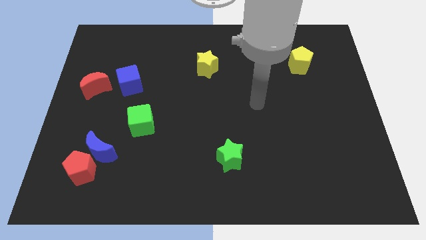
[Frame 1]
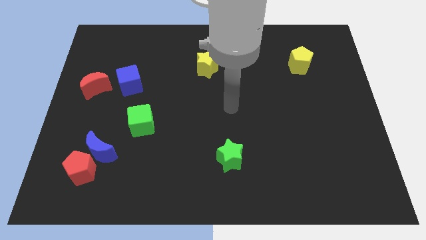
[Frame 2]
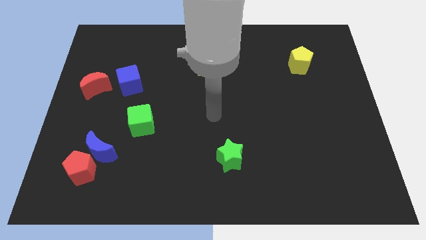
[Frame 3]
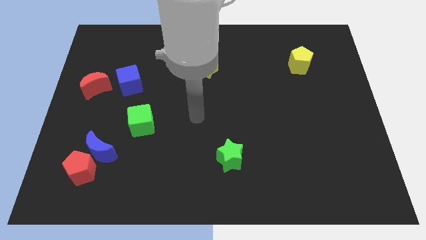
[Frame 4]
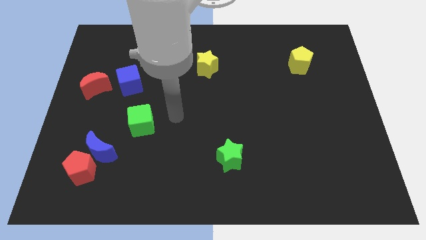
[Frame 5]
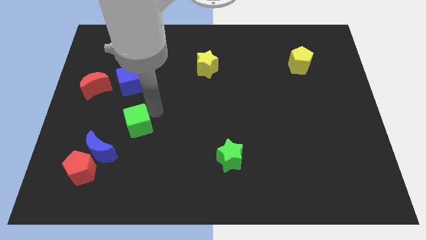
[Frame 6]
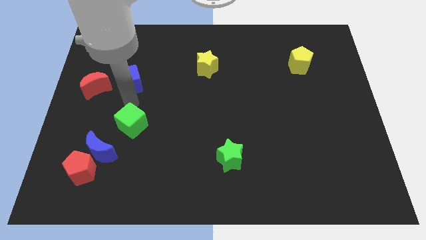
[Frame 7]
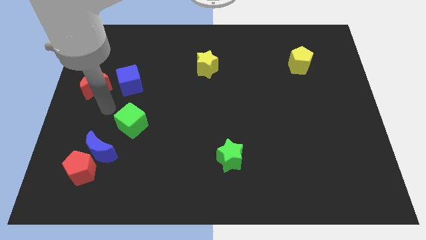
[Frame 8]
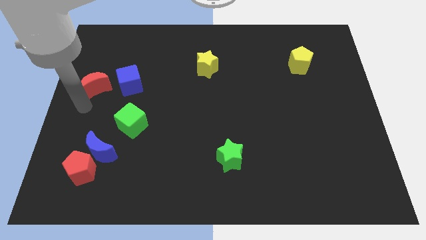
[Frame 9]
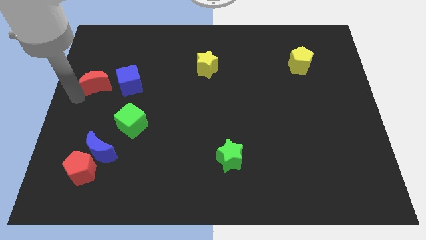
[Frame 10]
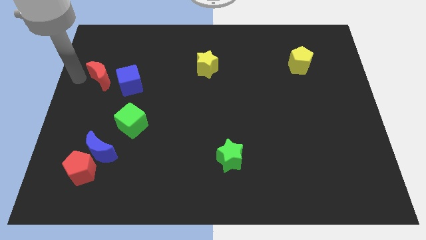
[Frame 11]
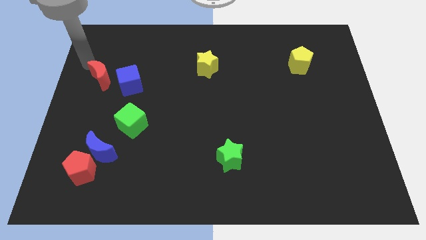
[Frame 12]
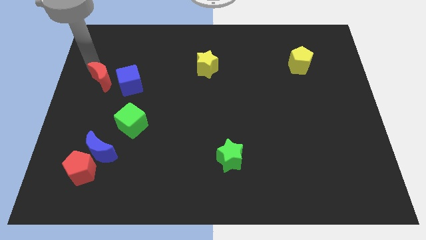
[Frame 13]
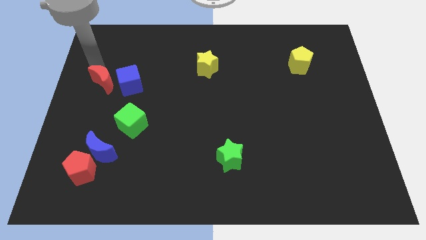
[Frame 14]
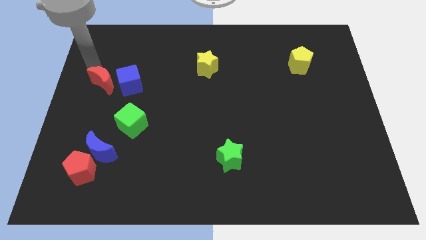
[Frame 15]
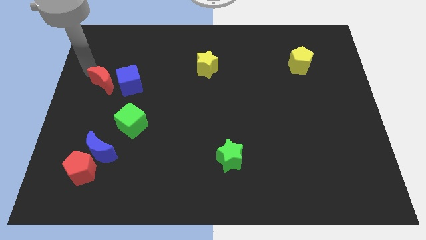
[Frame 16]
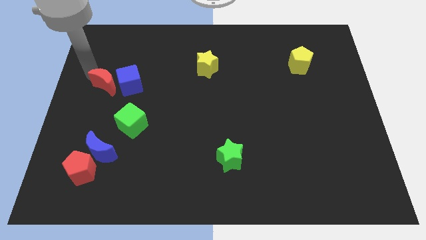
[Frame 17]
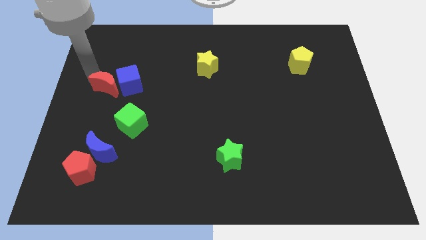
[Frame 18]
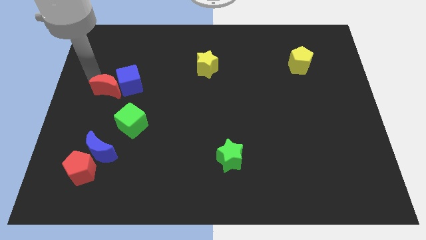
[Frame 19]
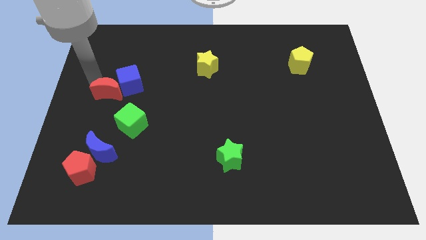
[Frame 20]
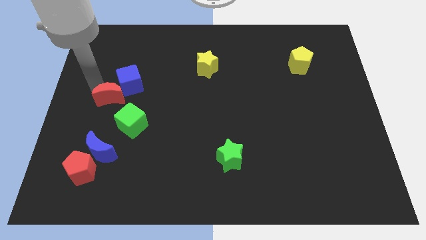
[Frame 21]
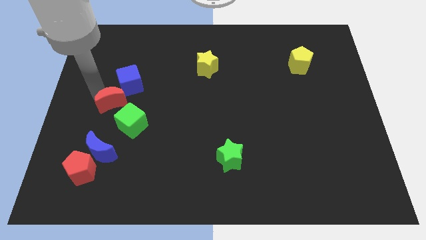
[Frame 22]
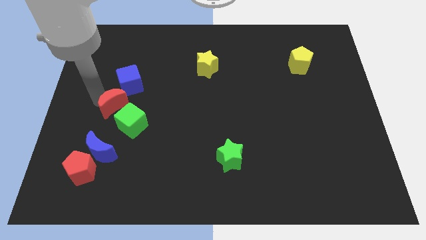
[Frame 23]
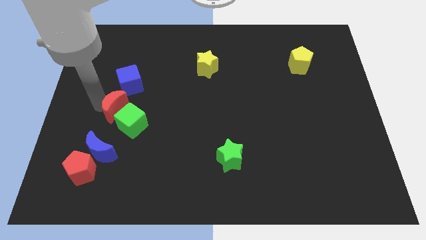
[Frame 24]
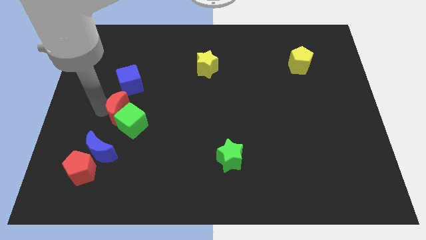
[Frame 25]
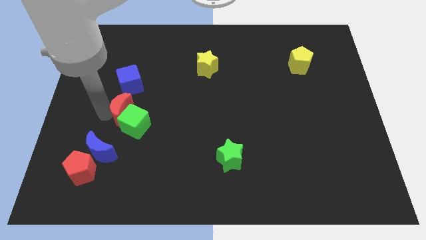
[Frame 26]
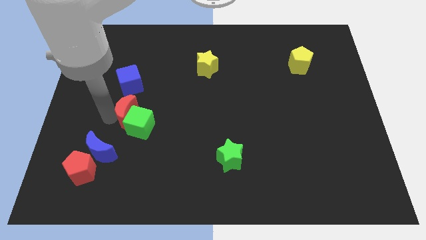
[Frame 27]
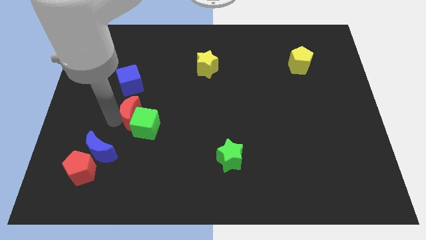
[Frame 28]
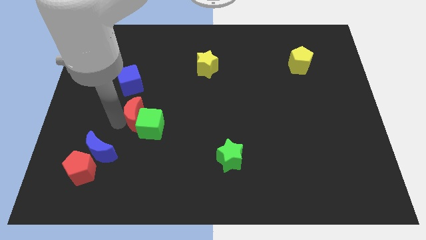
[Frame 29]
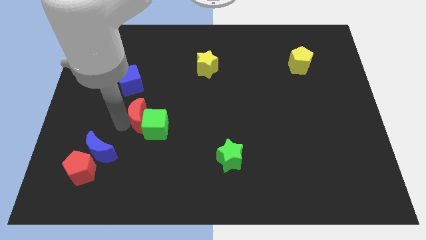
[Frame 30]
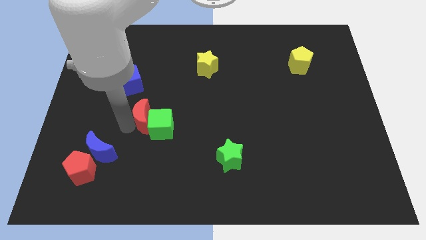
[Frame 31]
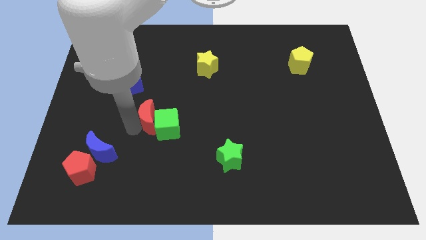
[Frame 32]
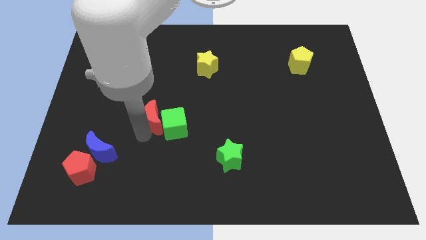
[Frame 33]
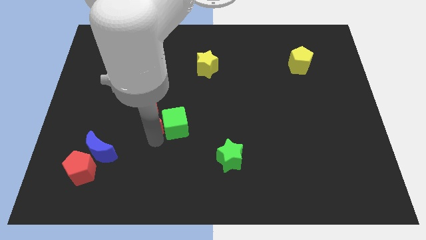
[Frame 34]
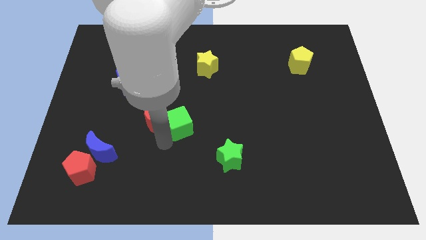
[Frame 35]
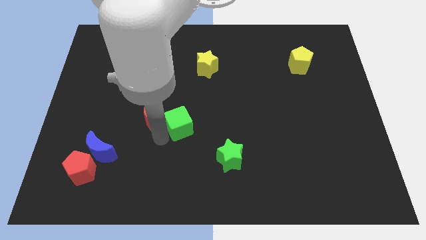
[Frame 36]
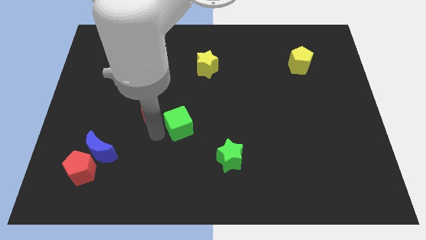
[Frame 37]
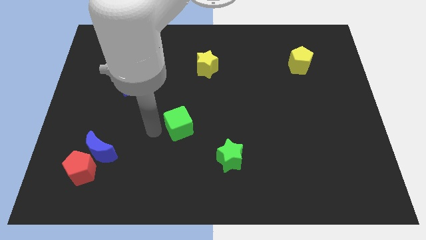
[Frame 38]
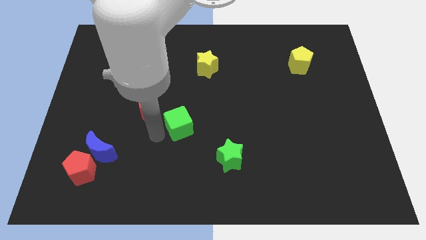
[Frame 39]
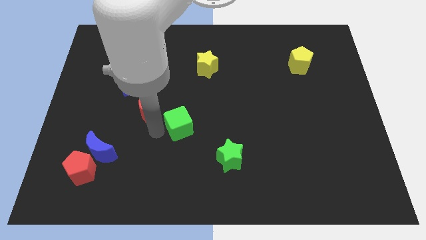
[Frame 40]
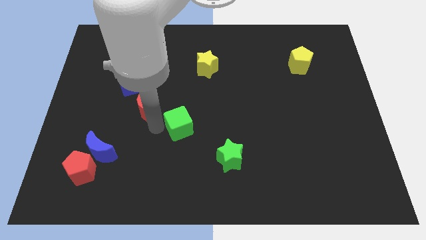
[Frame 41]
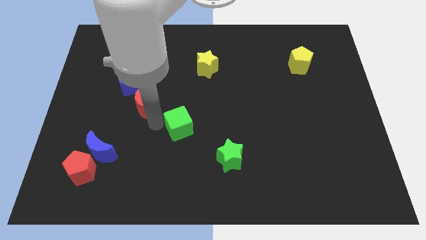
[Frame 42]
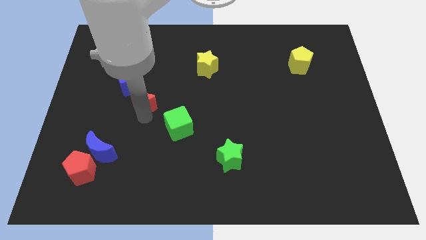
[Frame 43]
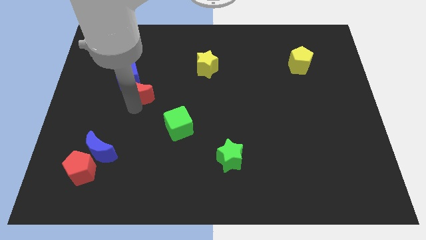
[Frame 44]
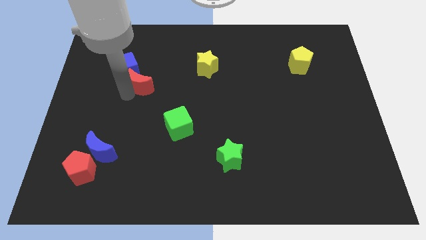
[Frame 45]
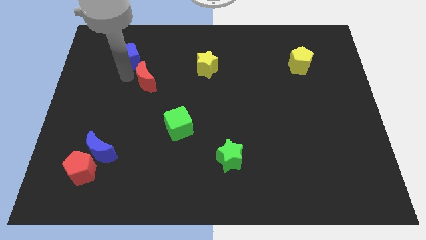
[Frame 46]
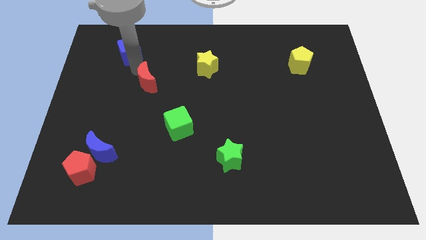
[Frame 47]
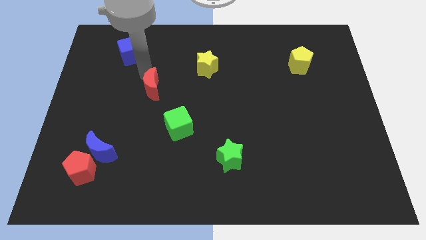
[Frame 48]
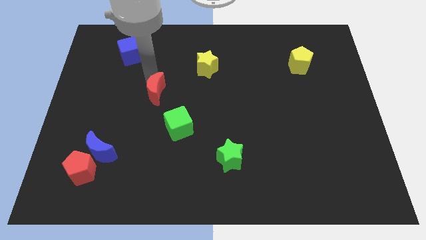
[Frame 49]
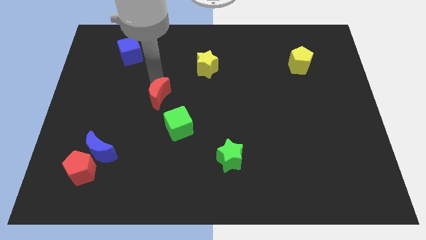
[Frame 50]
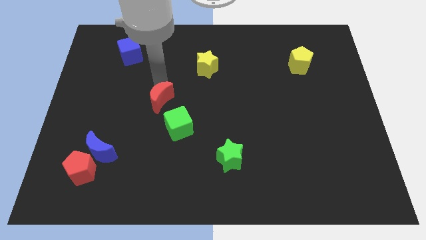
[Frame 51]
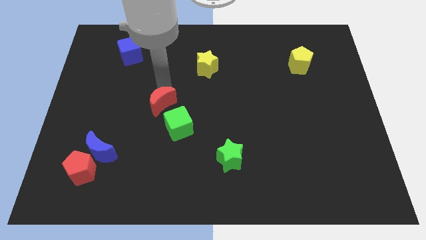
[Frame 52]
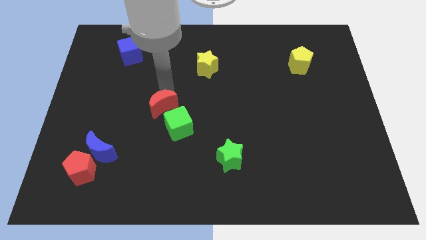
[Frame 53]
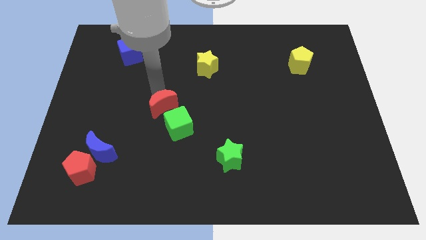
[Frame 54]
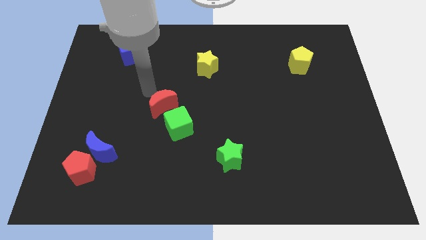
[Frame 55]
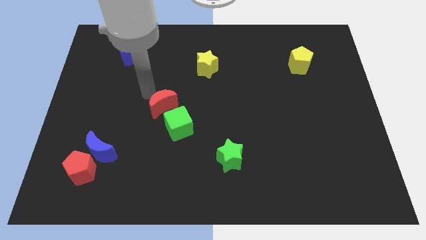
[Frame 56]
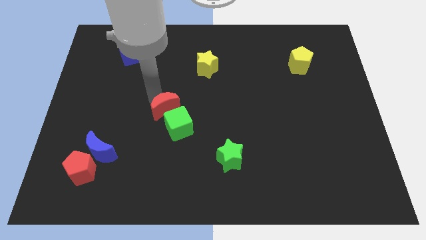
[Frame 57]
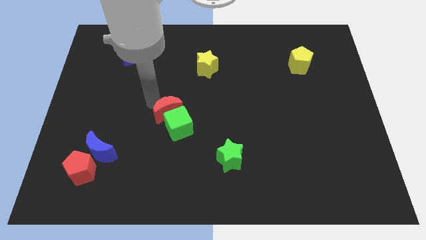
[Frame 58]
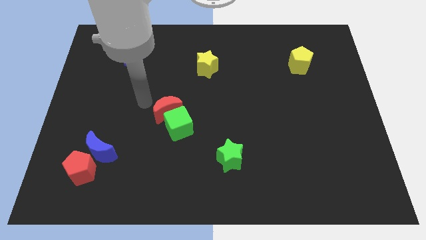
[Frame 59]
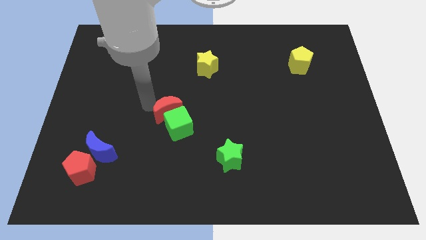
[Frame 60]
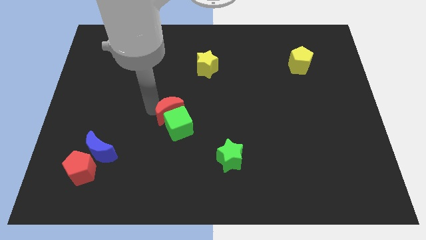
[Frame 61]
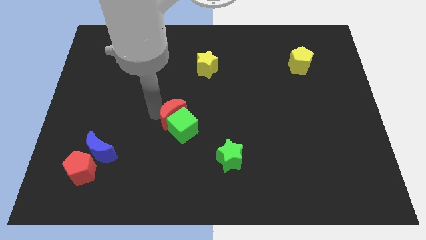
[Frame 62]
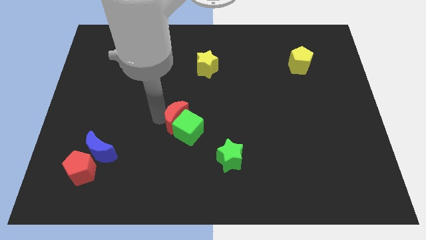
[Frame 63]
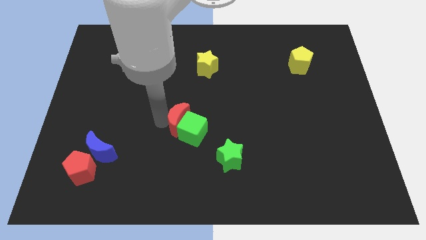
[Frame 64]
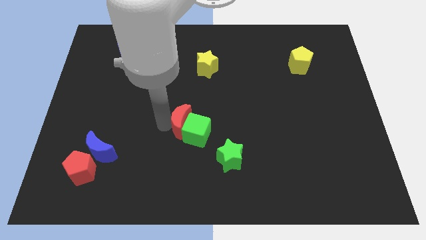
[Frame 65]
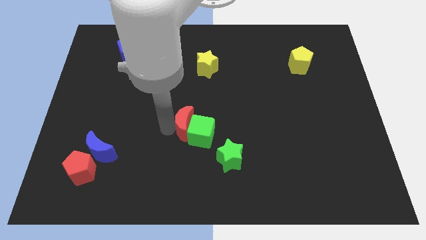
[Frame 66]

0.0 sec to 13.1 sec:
slide the red moon to the top left side of the green star

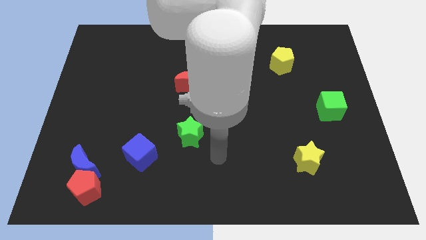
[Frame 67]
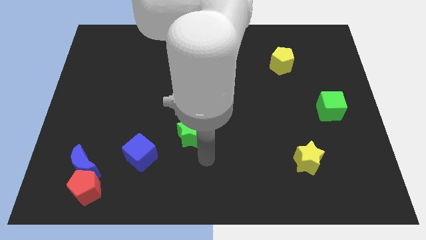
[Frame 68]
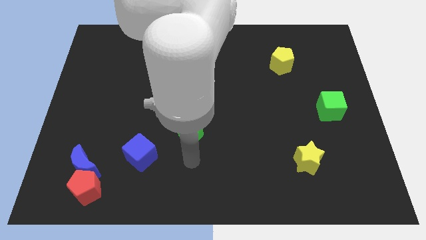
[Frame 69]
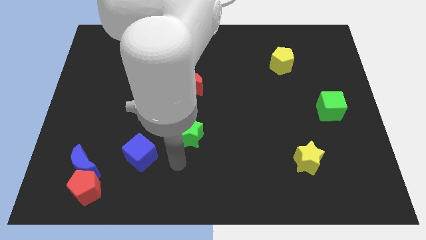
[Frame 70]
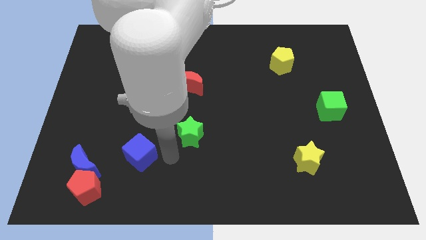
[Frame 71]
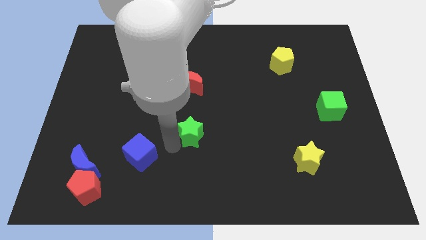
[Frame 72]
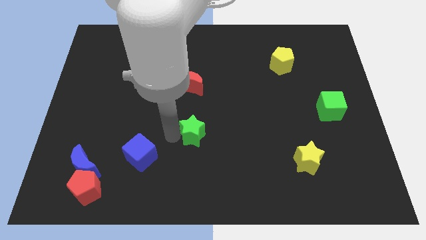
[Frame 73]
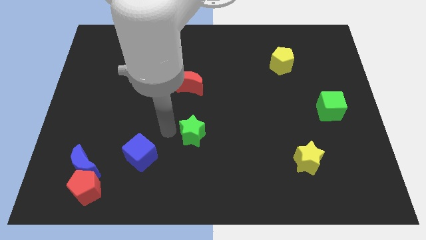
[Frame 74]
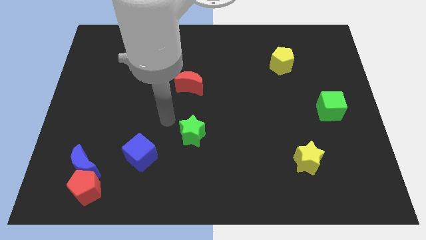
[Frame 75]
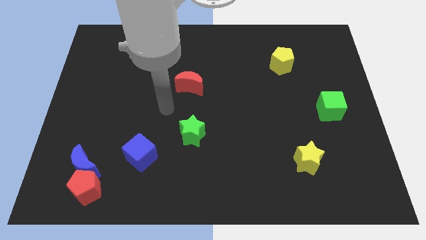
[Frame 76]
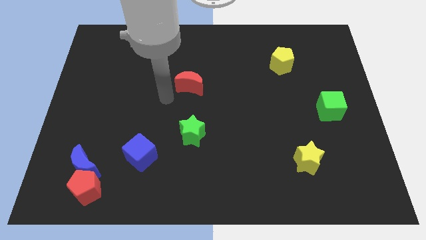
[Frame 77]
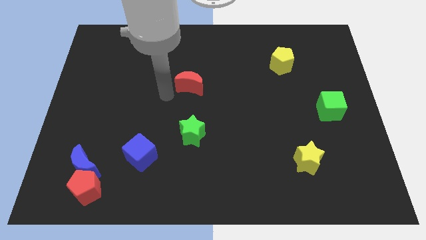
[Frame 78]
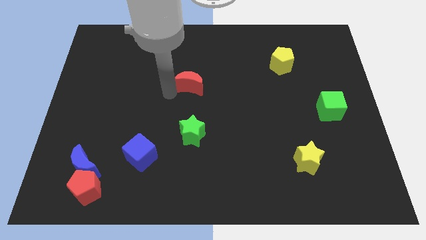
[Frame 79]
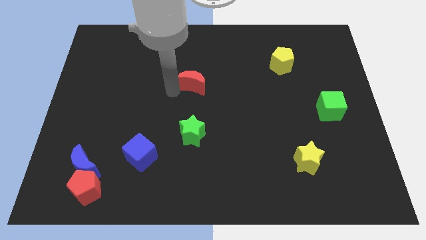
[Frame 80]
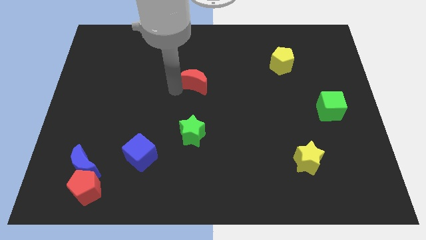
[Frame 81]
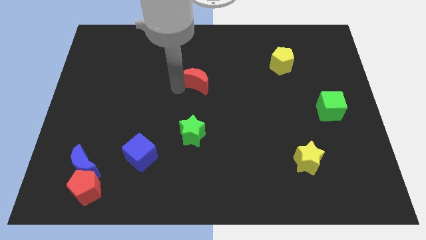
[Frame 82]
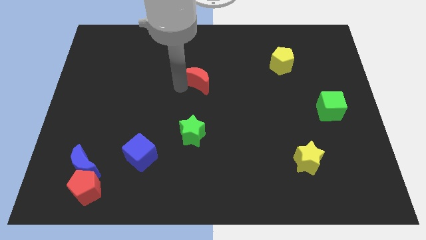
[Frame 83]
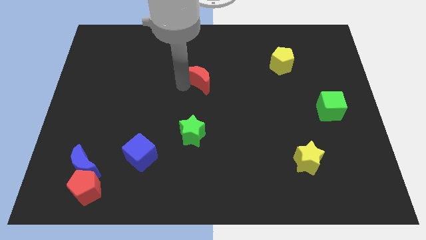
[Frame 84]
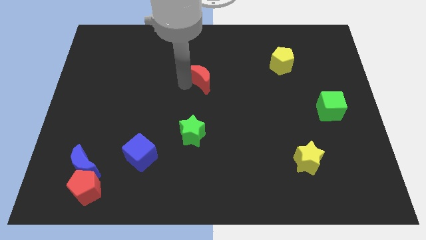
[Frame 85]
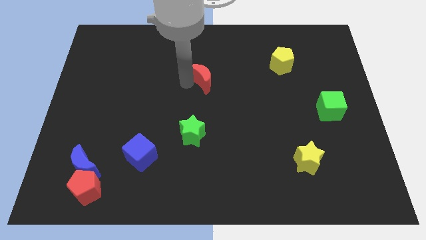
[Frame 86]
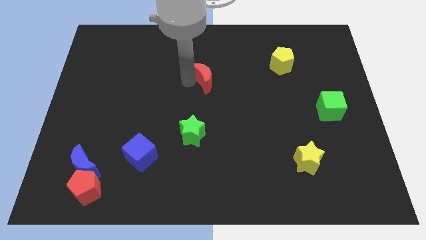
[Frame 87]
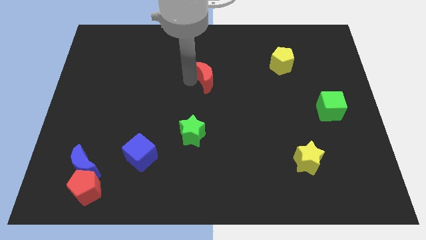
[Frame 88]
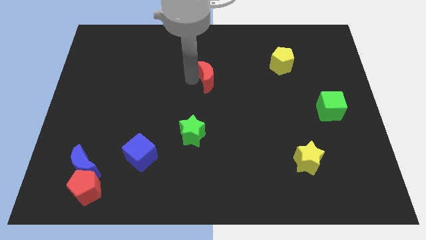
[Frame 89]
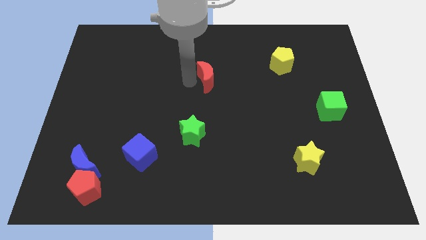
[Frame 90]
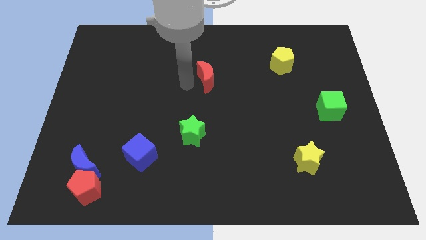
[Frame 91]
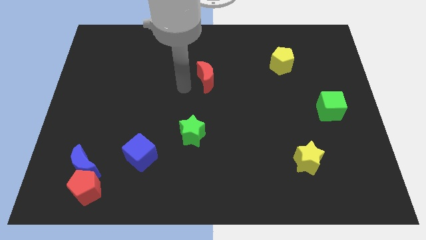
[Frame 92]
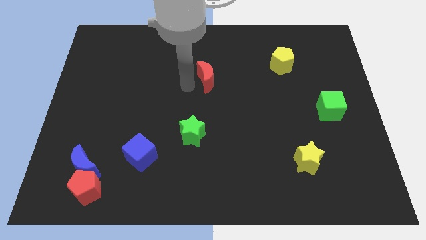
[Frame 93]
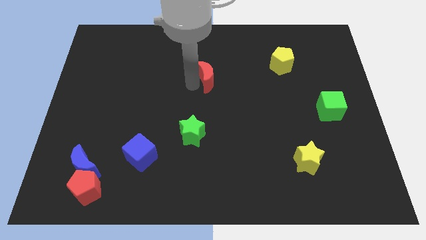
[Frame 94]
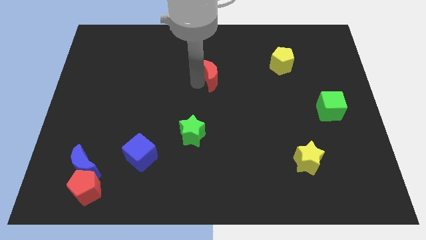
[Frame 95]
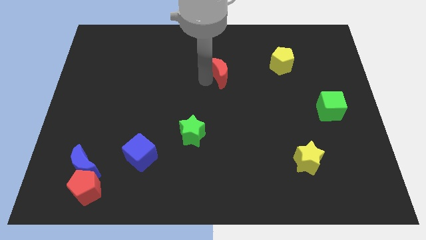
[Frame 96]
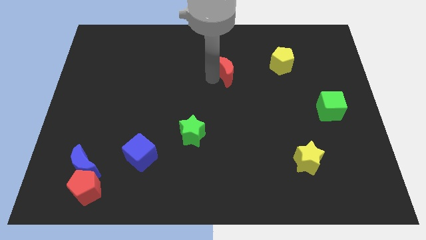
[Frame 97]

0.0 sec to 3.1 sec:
push the red moon to the left side of the yellow pentagon
